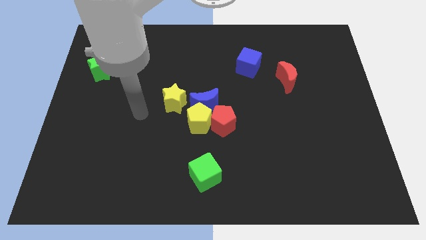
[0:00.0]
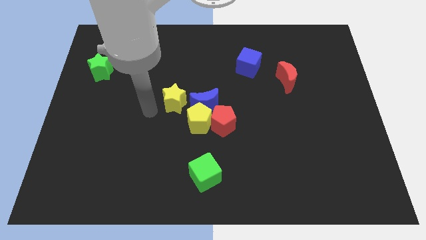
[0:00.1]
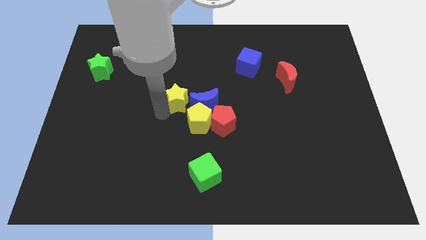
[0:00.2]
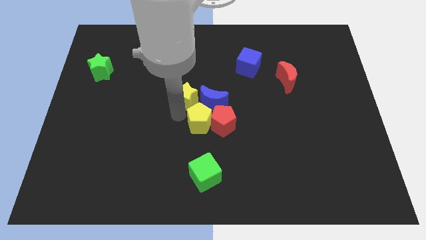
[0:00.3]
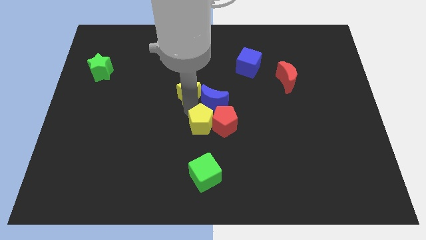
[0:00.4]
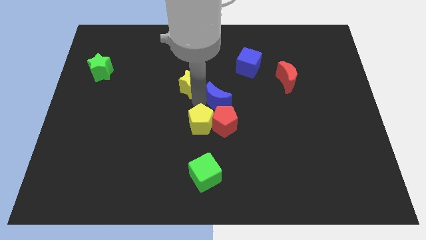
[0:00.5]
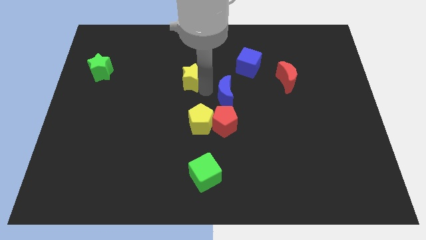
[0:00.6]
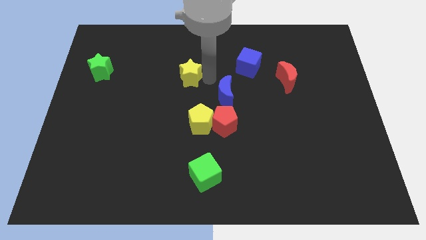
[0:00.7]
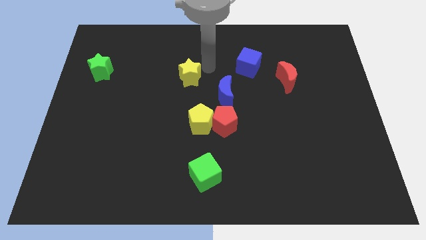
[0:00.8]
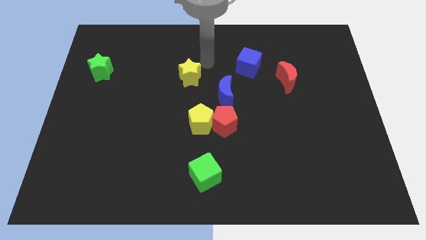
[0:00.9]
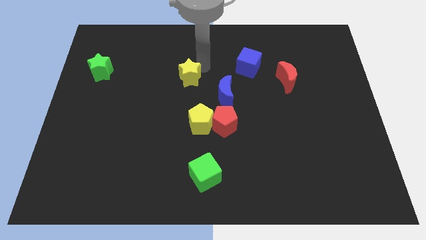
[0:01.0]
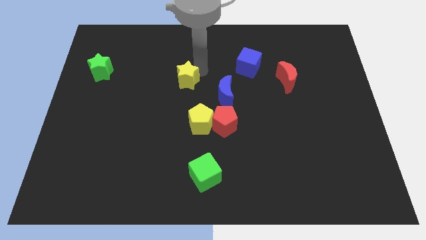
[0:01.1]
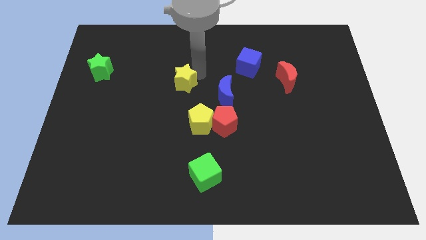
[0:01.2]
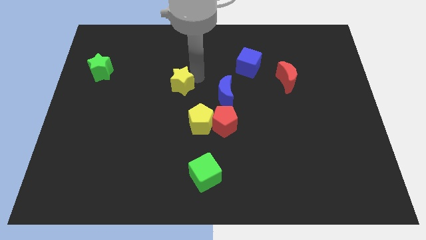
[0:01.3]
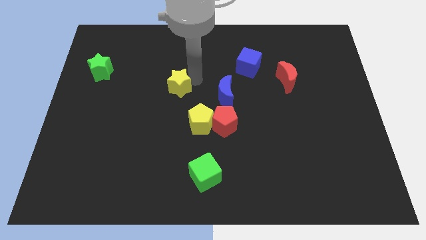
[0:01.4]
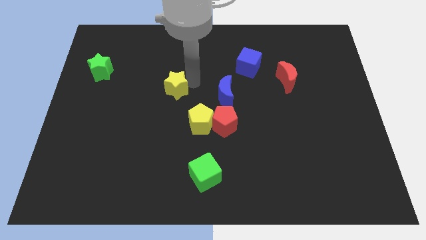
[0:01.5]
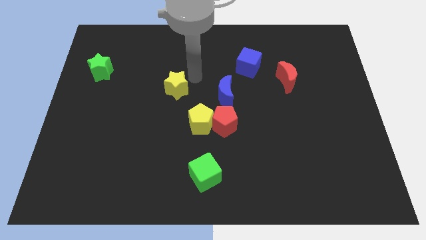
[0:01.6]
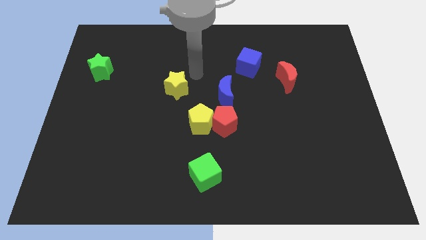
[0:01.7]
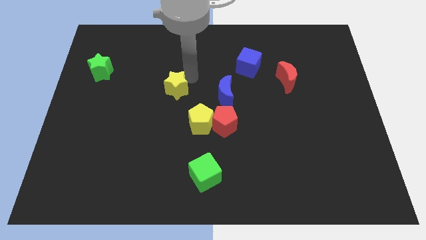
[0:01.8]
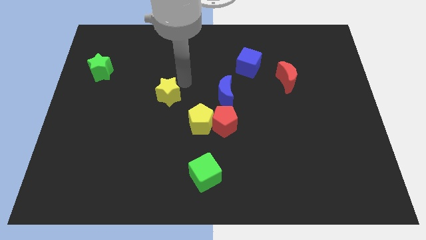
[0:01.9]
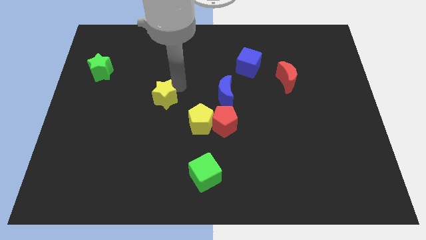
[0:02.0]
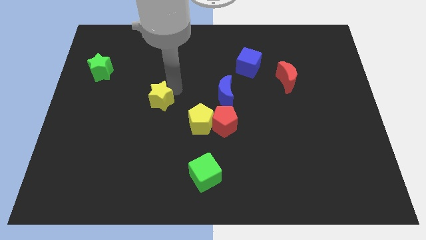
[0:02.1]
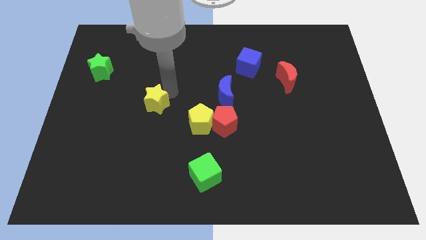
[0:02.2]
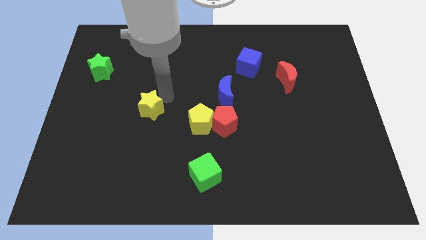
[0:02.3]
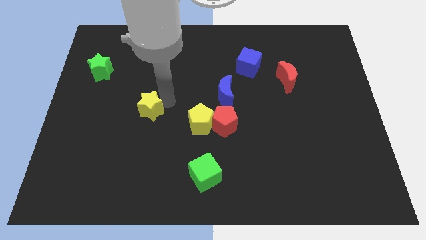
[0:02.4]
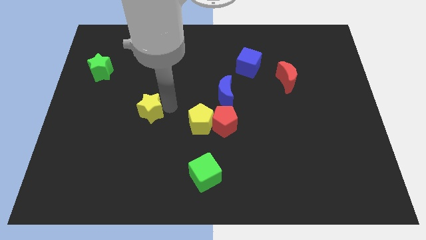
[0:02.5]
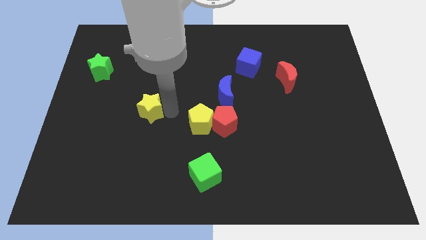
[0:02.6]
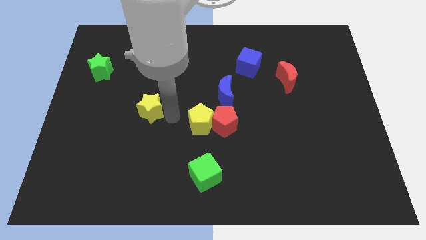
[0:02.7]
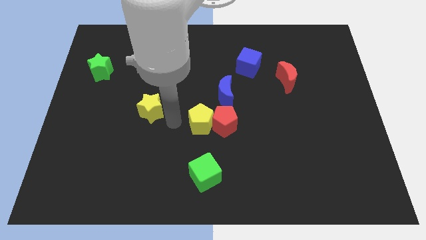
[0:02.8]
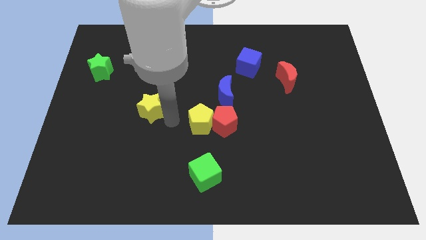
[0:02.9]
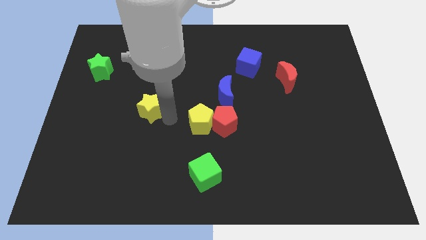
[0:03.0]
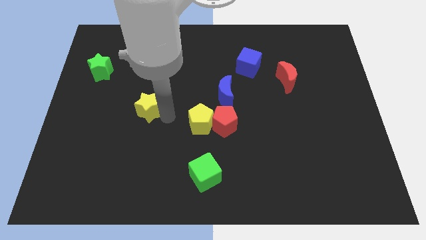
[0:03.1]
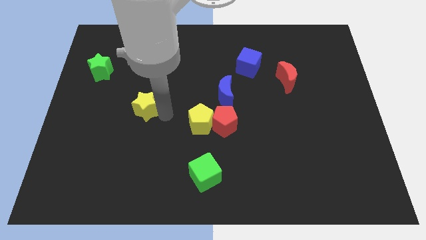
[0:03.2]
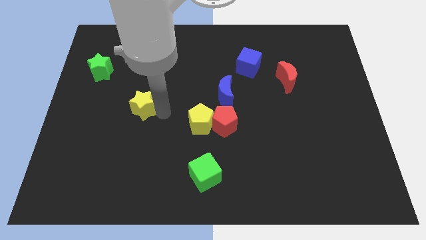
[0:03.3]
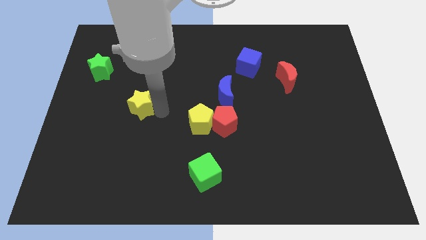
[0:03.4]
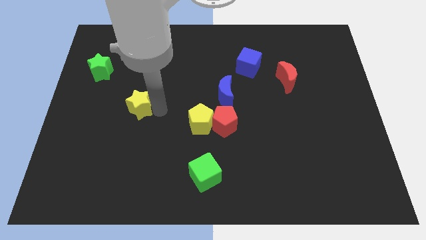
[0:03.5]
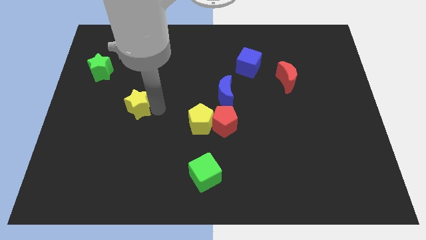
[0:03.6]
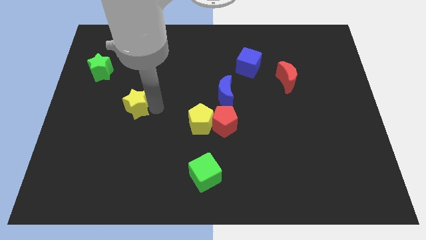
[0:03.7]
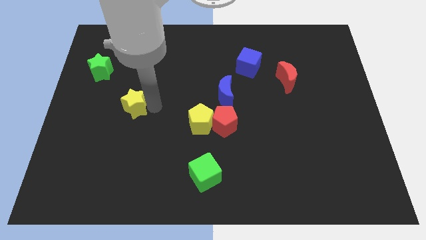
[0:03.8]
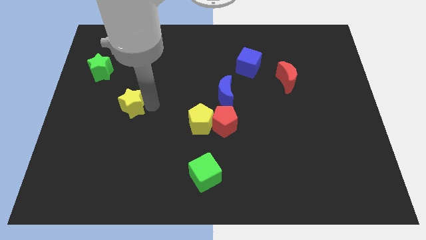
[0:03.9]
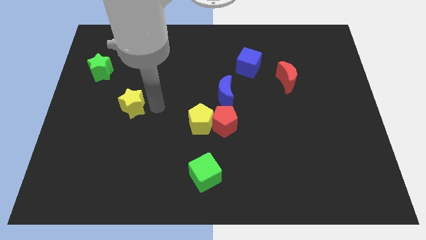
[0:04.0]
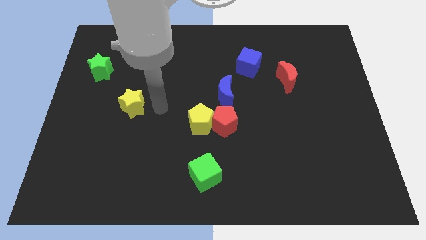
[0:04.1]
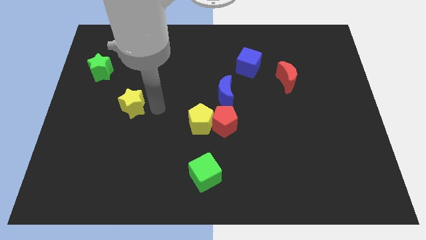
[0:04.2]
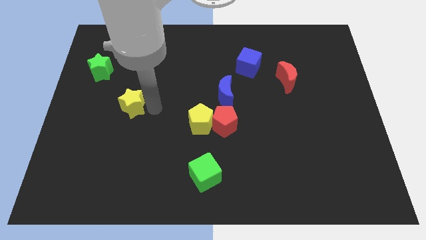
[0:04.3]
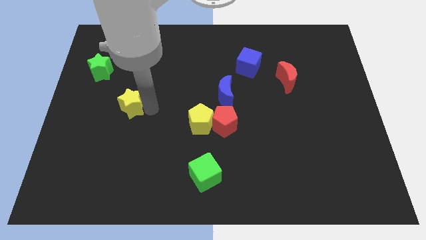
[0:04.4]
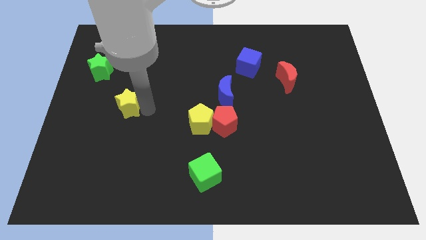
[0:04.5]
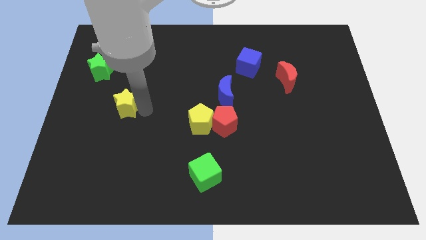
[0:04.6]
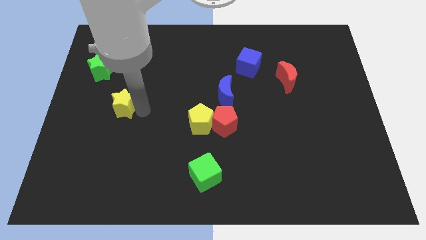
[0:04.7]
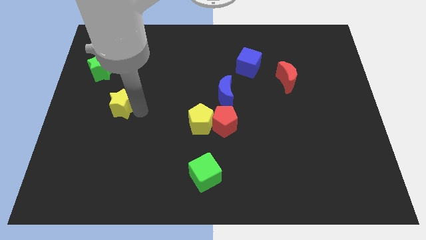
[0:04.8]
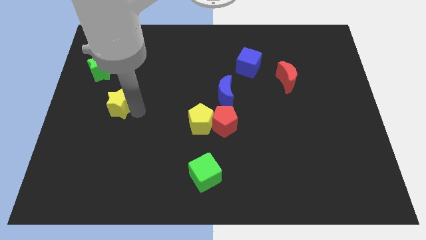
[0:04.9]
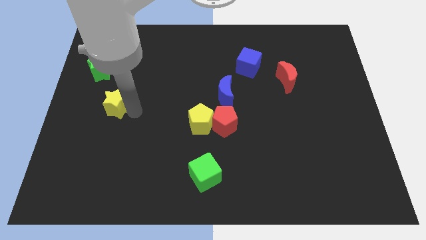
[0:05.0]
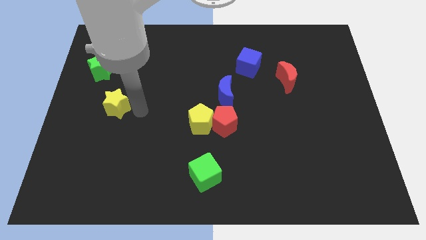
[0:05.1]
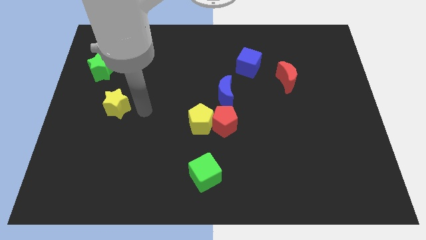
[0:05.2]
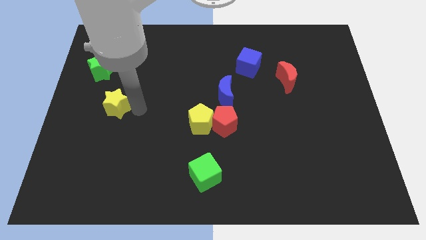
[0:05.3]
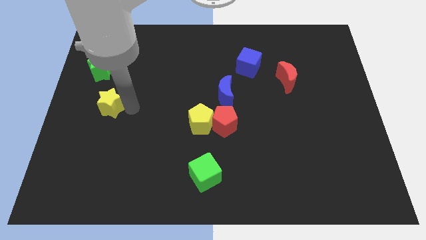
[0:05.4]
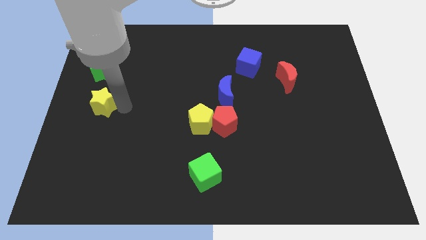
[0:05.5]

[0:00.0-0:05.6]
push the yellow star to the center left

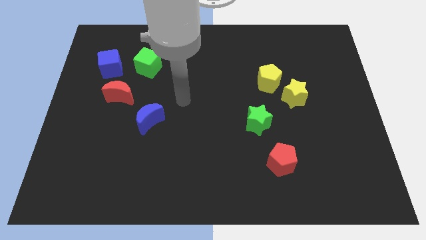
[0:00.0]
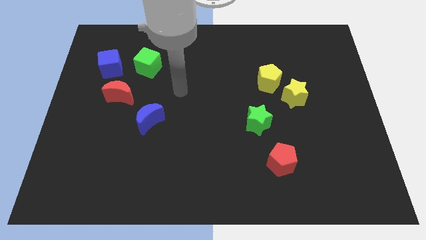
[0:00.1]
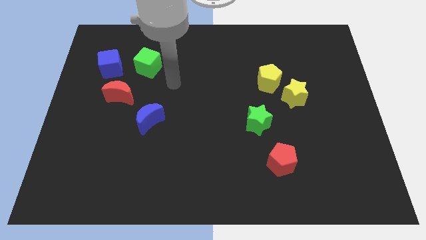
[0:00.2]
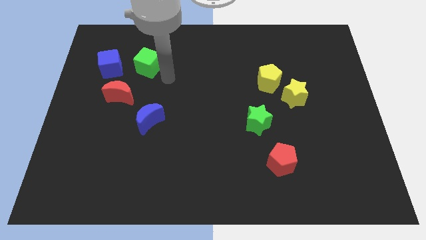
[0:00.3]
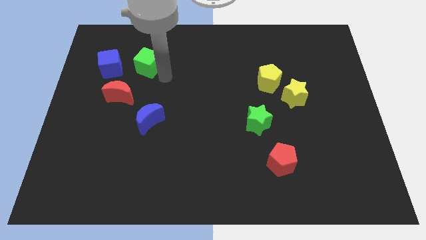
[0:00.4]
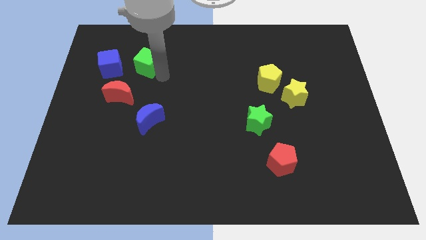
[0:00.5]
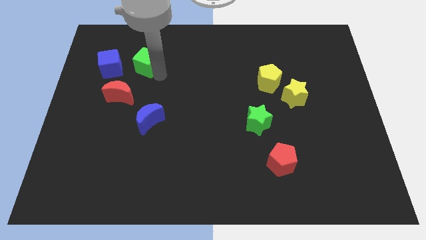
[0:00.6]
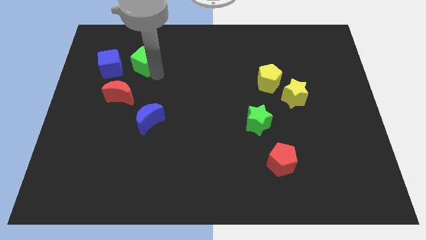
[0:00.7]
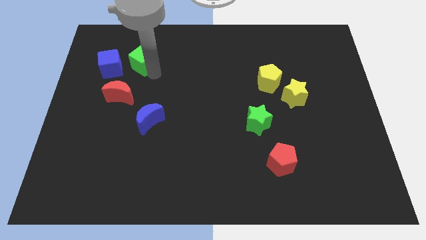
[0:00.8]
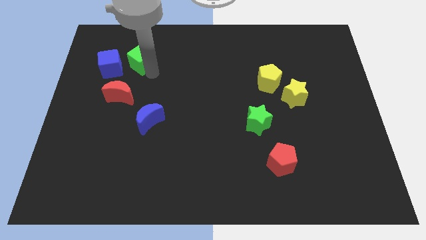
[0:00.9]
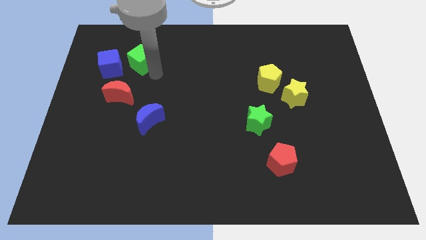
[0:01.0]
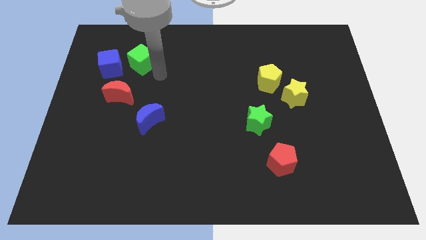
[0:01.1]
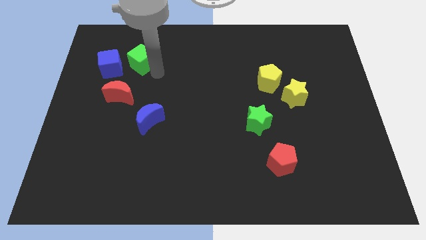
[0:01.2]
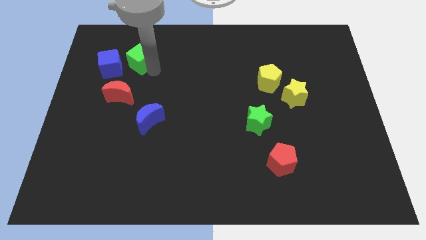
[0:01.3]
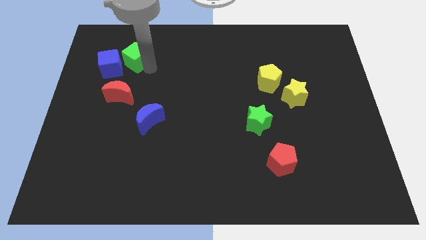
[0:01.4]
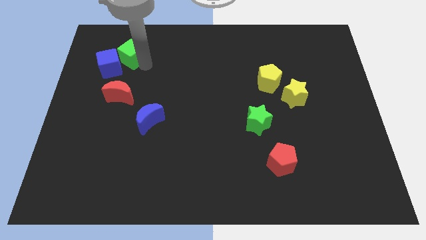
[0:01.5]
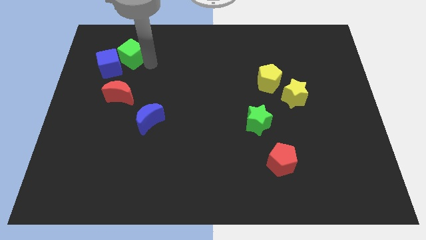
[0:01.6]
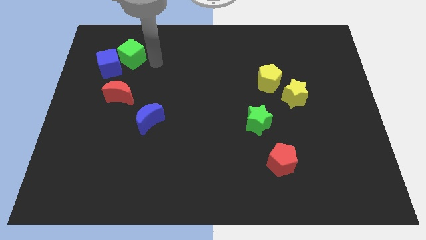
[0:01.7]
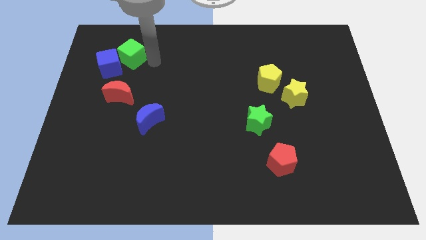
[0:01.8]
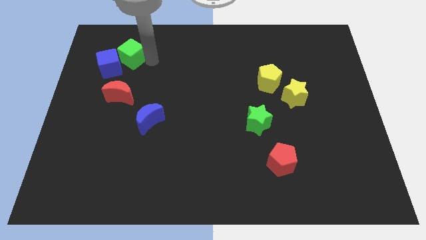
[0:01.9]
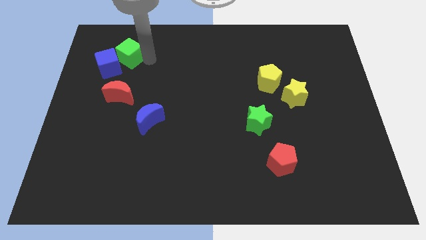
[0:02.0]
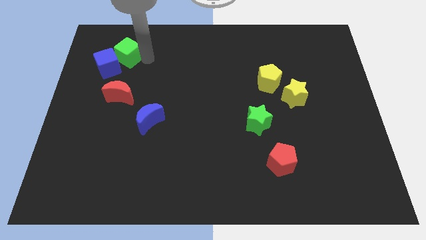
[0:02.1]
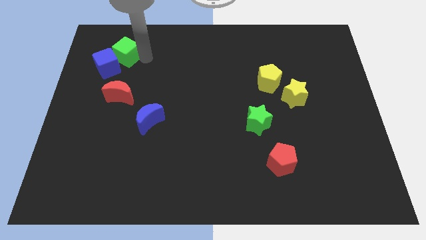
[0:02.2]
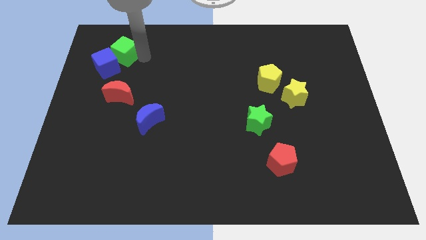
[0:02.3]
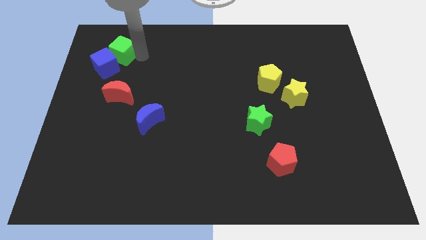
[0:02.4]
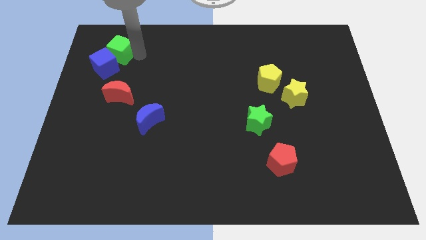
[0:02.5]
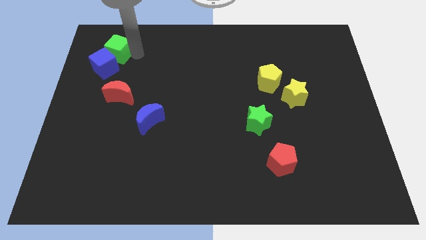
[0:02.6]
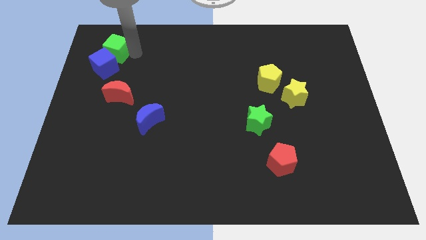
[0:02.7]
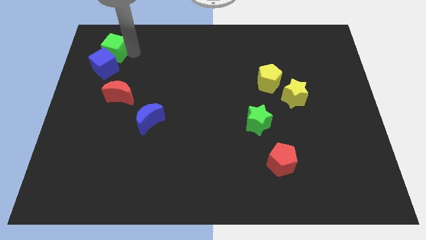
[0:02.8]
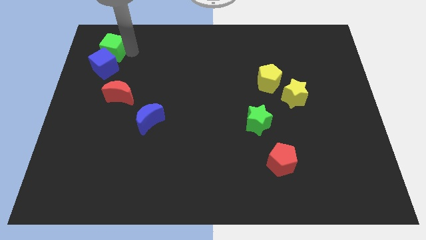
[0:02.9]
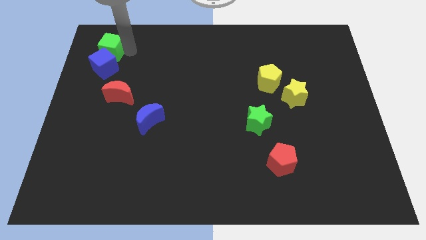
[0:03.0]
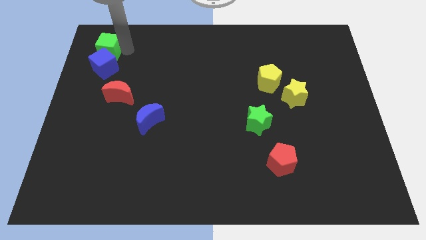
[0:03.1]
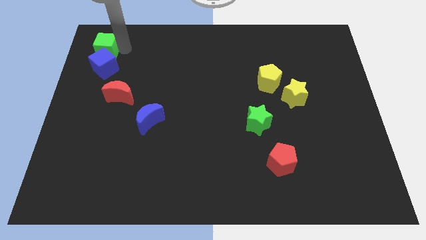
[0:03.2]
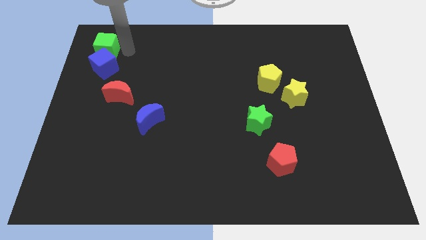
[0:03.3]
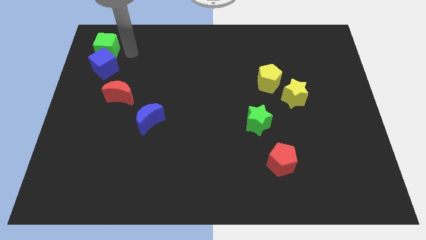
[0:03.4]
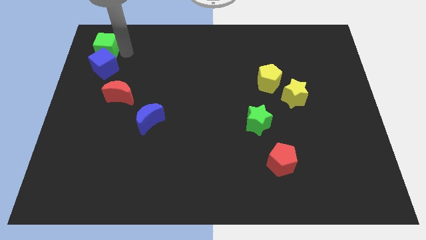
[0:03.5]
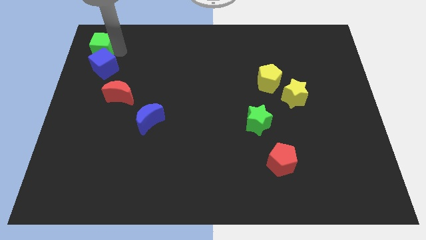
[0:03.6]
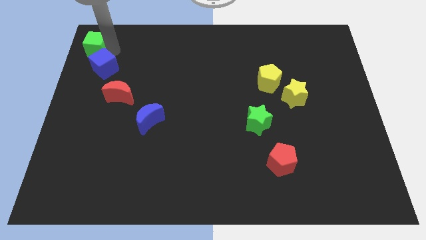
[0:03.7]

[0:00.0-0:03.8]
move the green cube to the upper left corner
